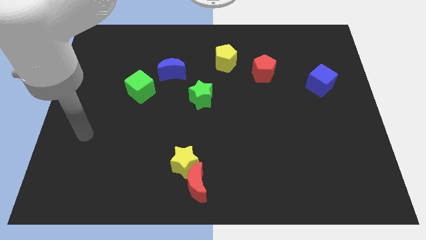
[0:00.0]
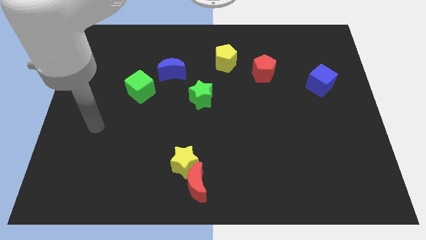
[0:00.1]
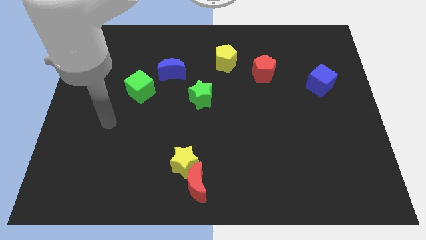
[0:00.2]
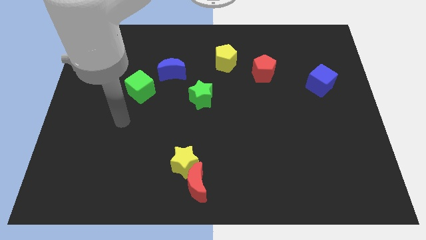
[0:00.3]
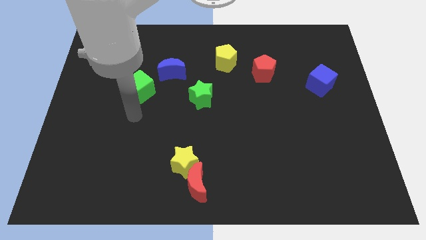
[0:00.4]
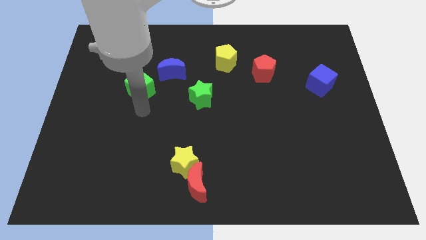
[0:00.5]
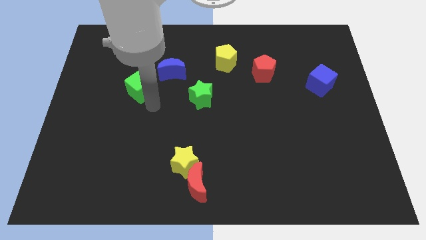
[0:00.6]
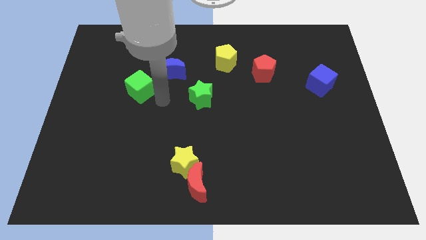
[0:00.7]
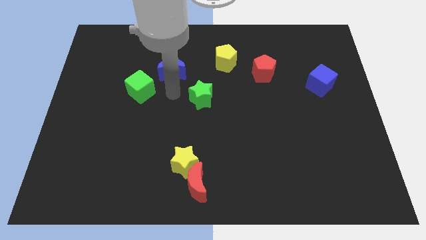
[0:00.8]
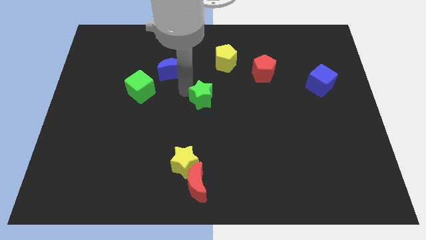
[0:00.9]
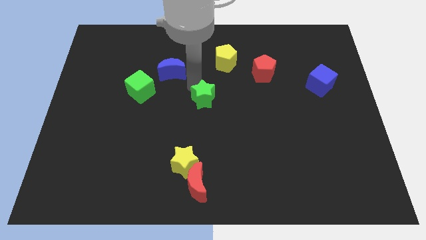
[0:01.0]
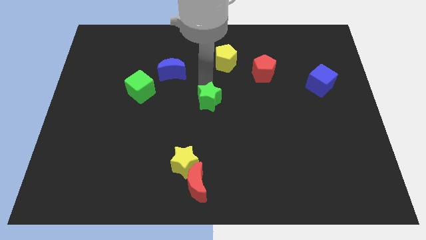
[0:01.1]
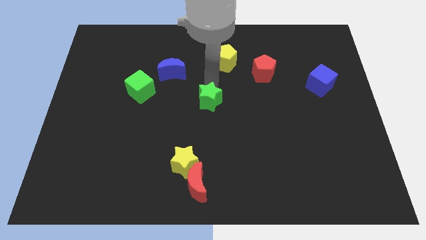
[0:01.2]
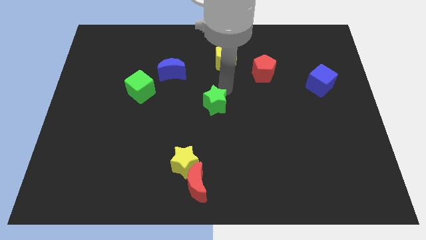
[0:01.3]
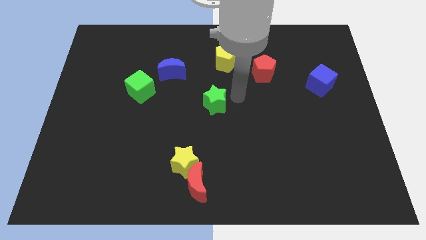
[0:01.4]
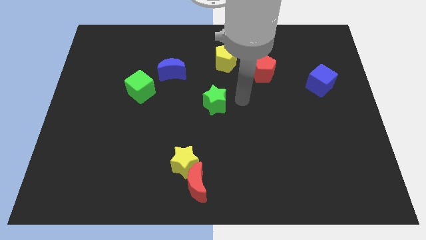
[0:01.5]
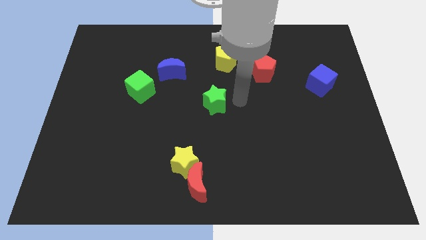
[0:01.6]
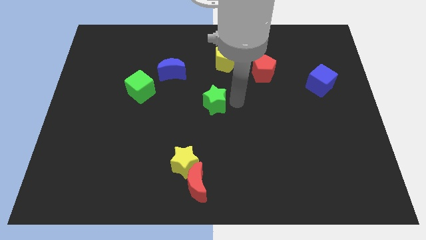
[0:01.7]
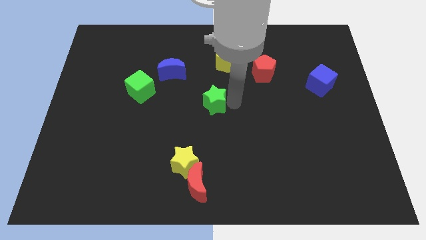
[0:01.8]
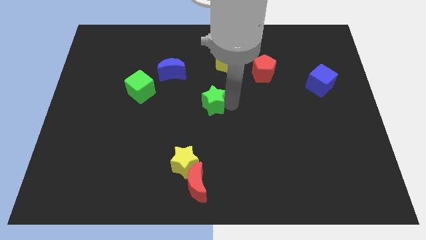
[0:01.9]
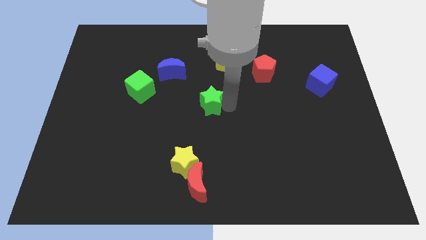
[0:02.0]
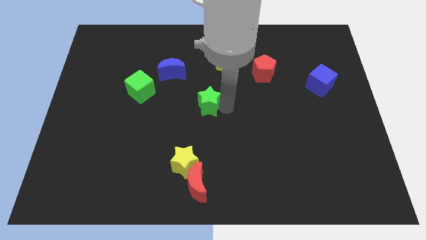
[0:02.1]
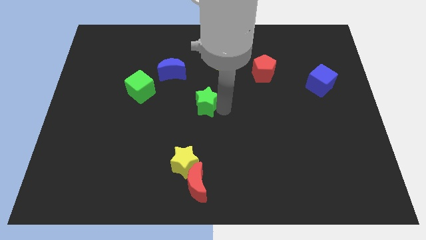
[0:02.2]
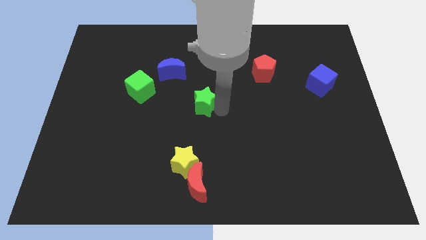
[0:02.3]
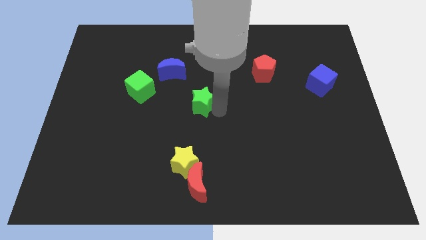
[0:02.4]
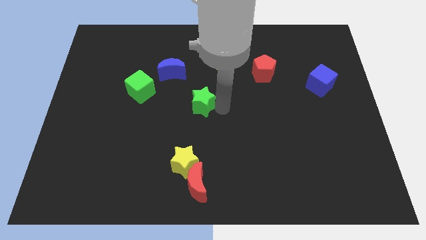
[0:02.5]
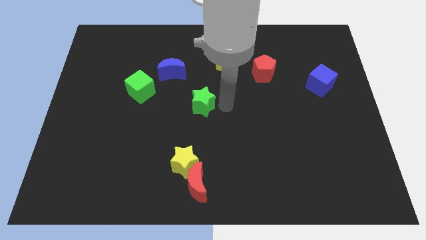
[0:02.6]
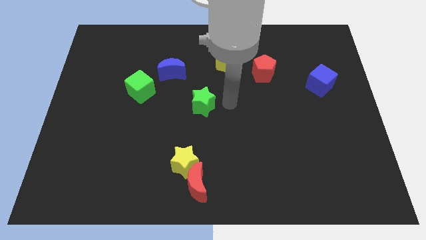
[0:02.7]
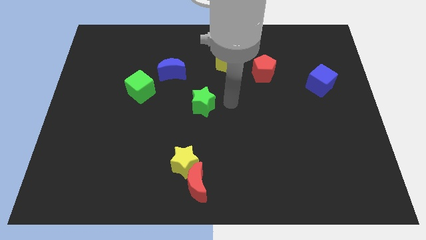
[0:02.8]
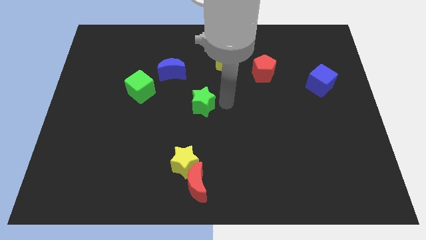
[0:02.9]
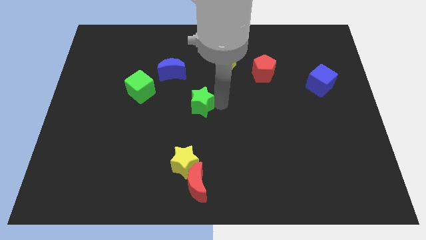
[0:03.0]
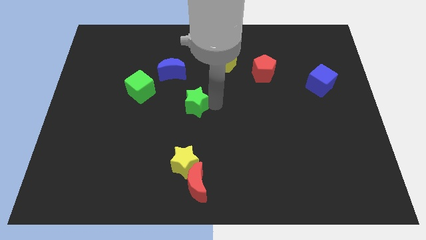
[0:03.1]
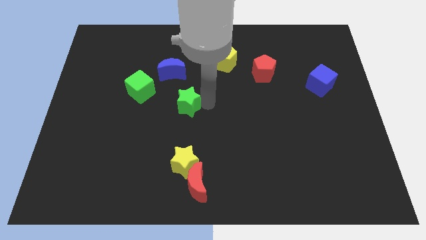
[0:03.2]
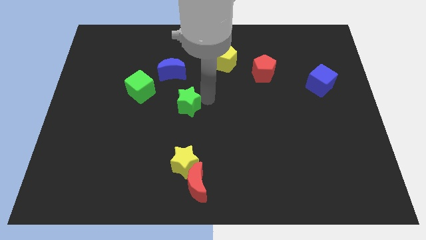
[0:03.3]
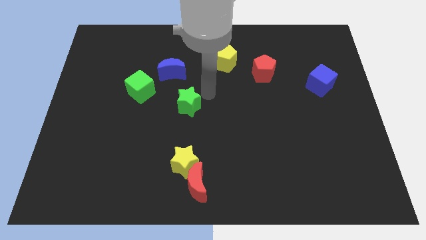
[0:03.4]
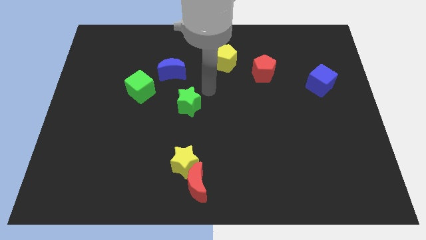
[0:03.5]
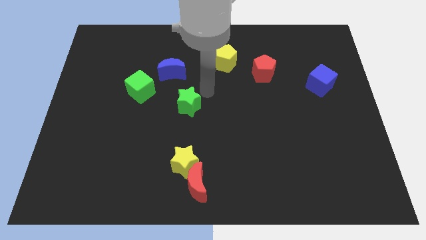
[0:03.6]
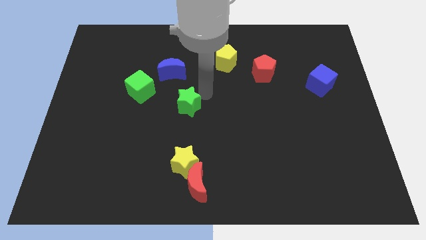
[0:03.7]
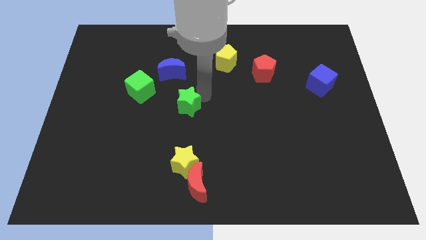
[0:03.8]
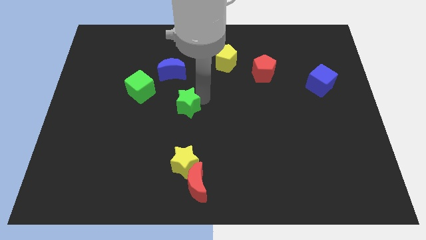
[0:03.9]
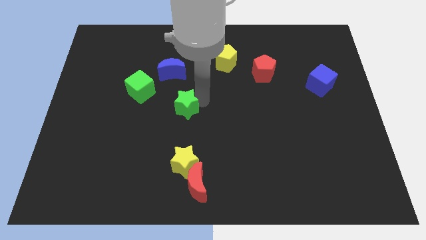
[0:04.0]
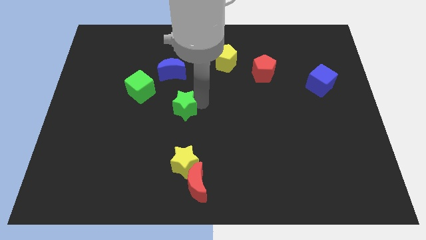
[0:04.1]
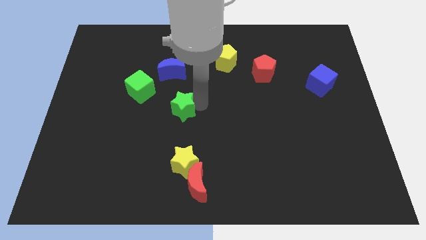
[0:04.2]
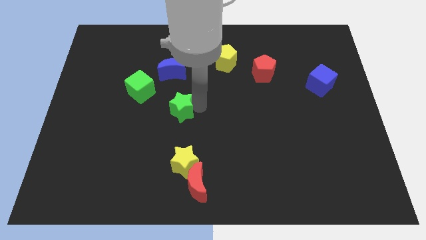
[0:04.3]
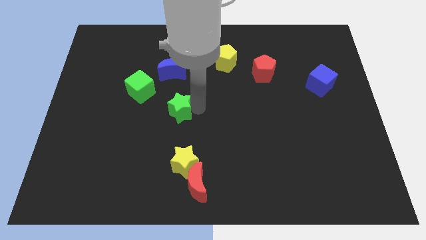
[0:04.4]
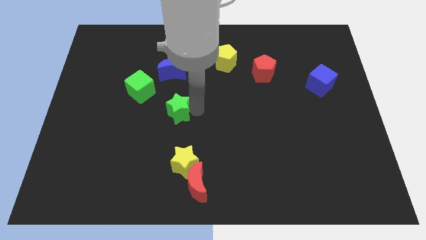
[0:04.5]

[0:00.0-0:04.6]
move the green star downwards and to the left diagonally a little bit

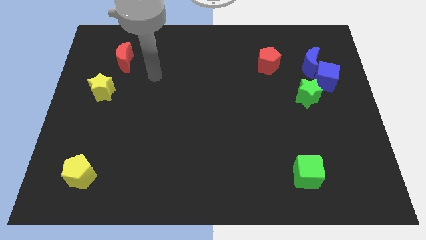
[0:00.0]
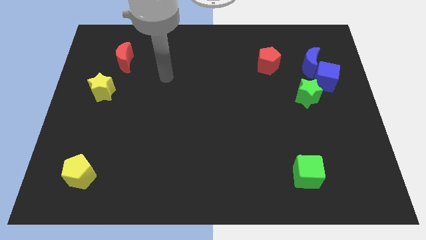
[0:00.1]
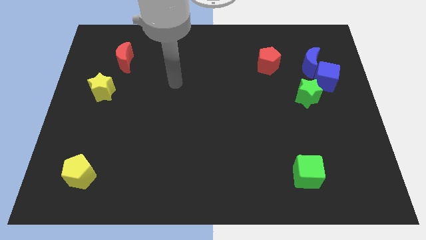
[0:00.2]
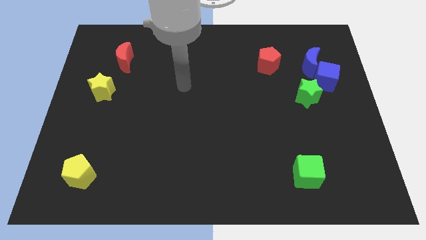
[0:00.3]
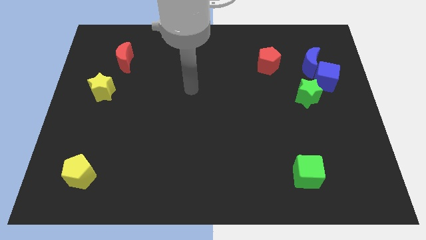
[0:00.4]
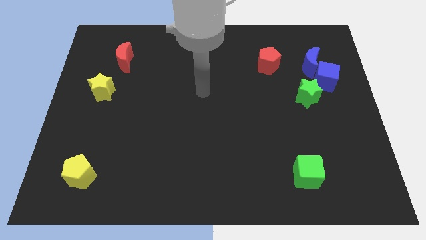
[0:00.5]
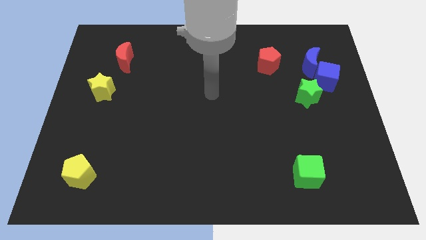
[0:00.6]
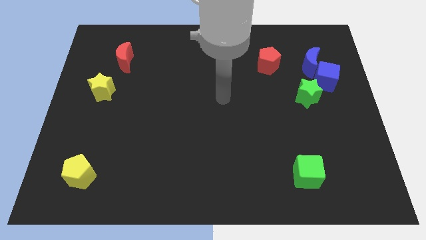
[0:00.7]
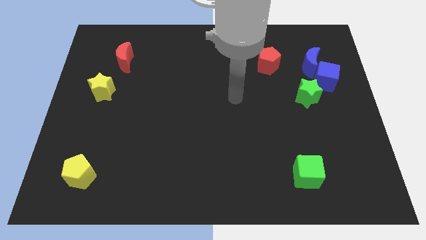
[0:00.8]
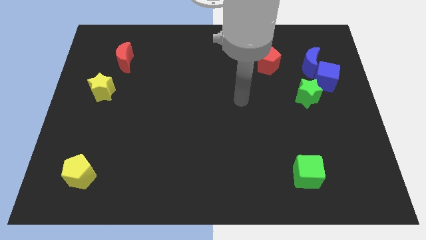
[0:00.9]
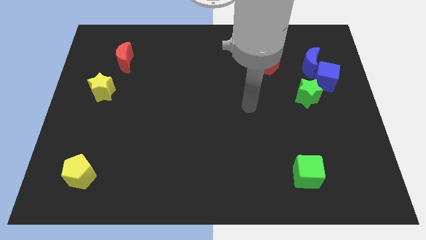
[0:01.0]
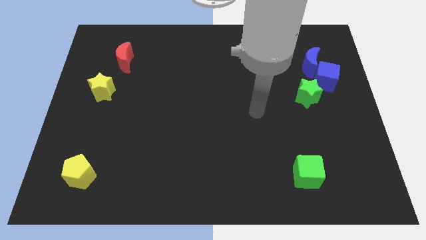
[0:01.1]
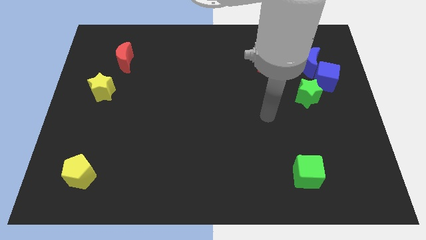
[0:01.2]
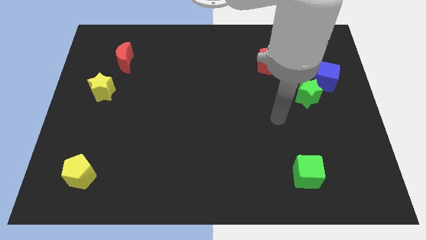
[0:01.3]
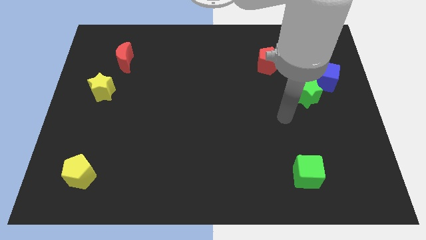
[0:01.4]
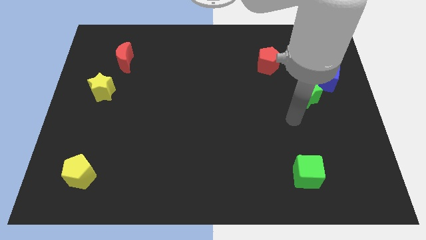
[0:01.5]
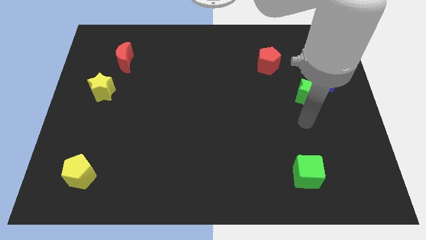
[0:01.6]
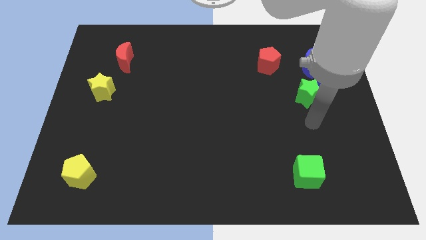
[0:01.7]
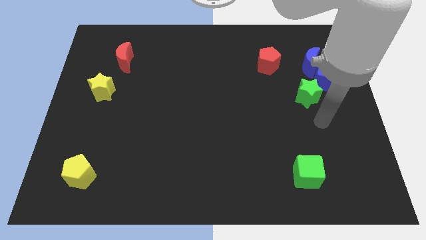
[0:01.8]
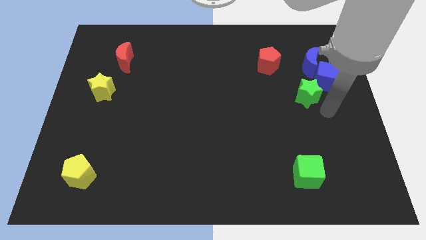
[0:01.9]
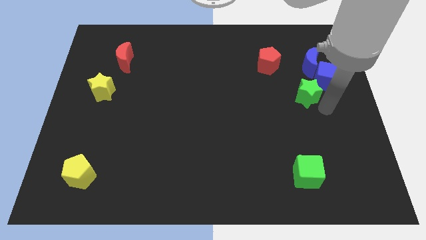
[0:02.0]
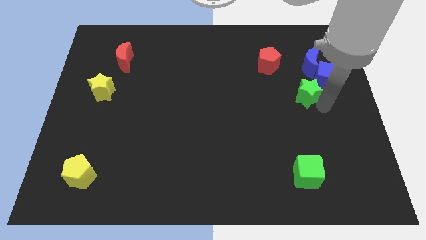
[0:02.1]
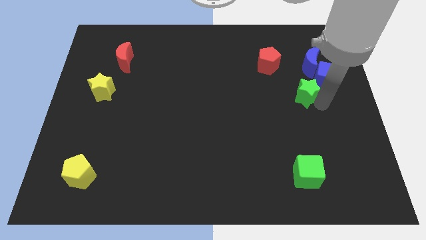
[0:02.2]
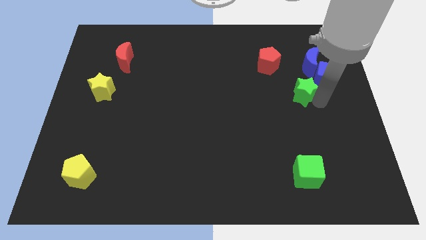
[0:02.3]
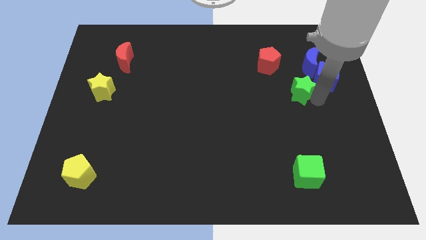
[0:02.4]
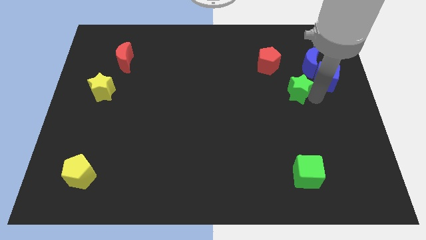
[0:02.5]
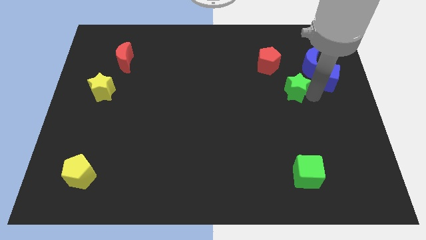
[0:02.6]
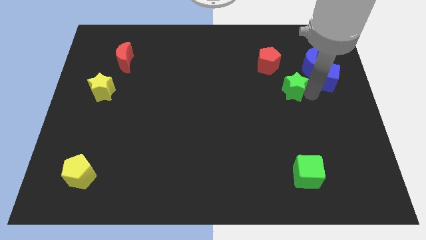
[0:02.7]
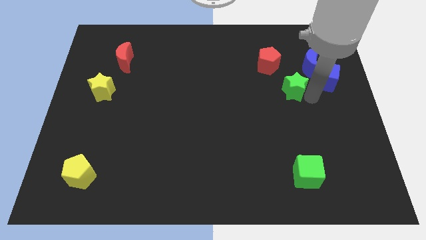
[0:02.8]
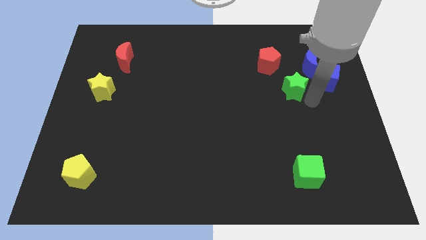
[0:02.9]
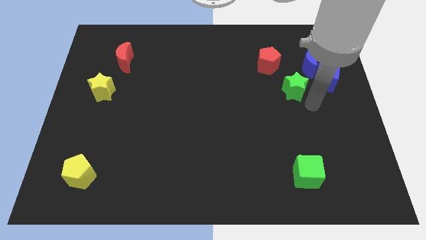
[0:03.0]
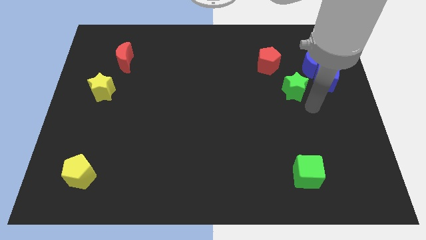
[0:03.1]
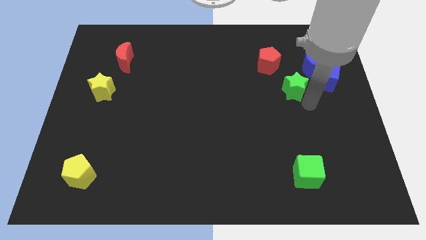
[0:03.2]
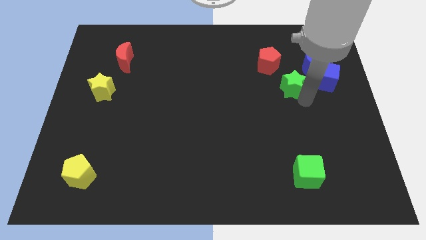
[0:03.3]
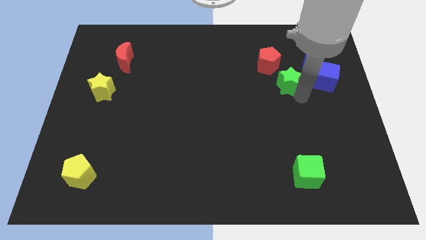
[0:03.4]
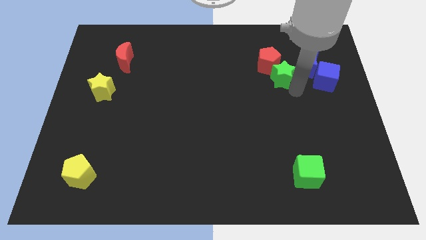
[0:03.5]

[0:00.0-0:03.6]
slightly move the green star up and then to the left
